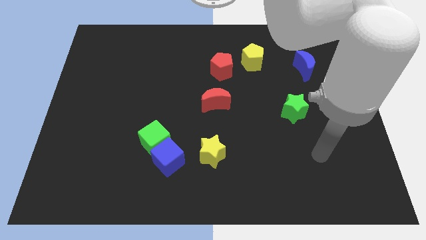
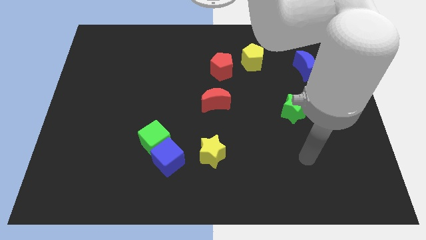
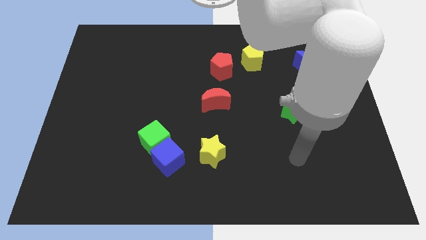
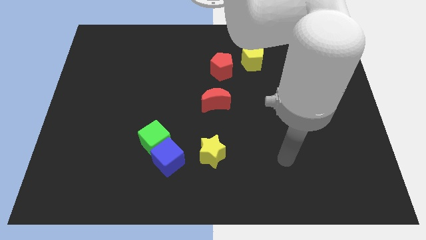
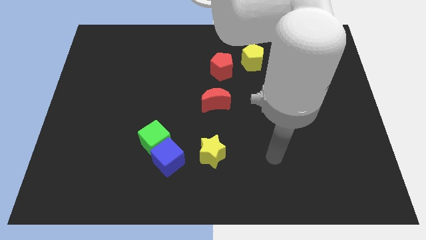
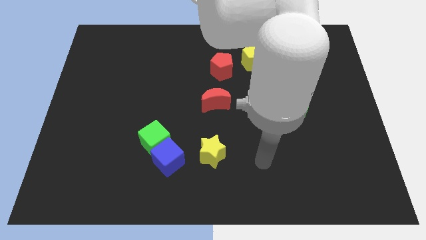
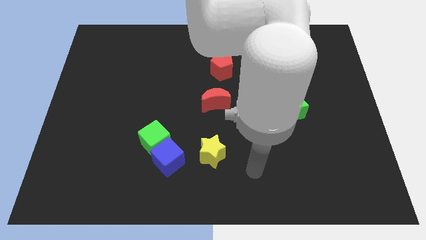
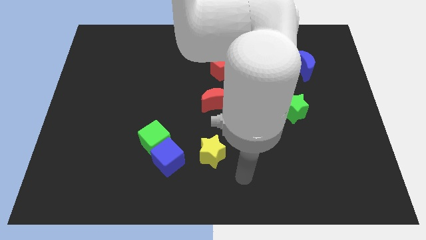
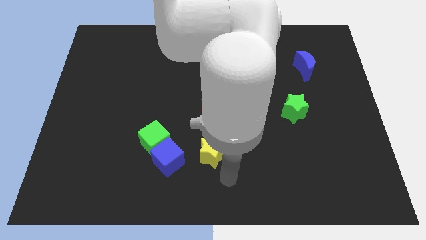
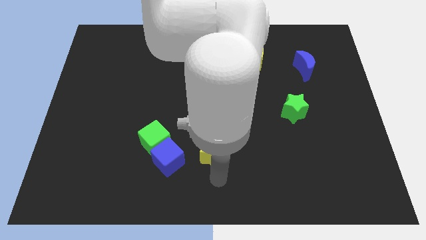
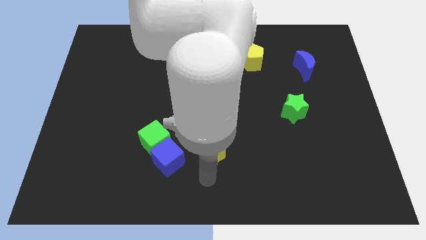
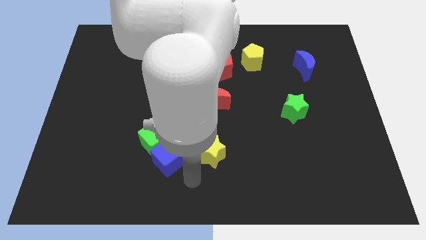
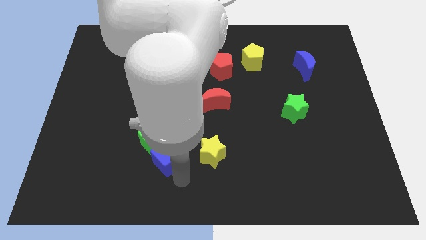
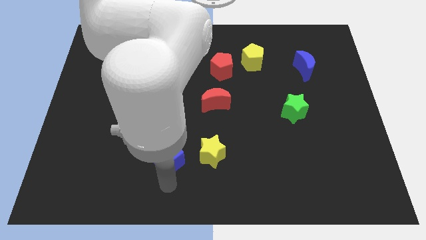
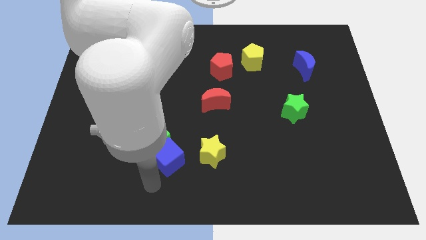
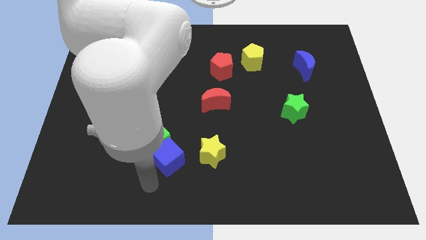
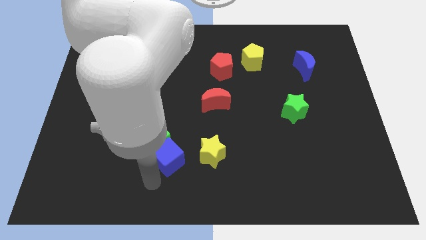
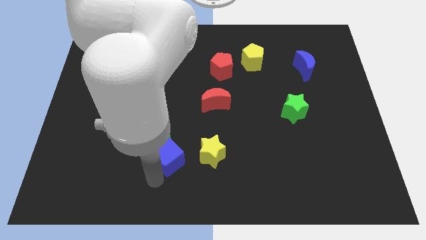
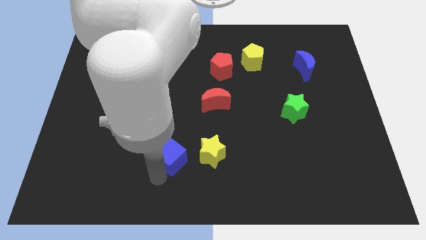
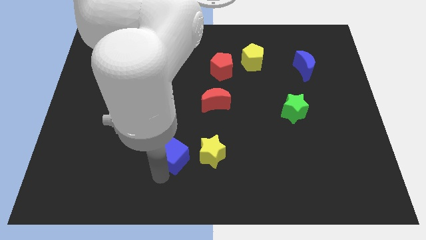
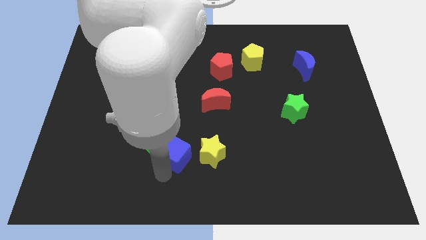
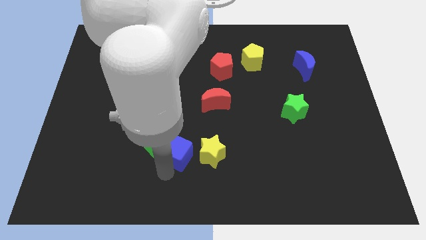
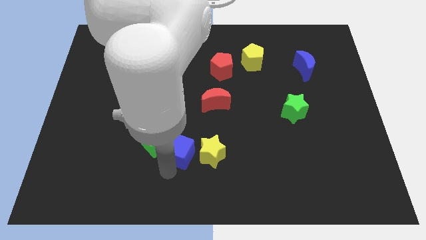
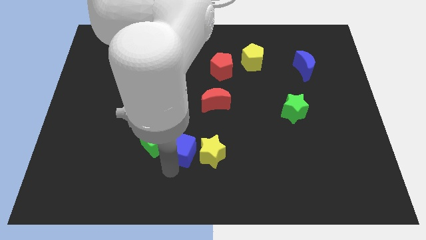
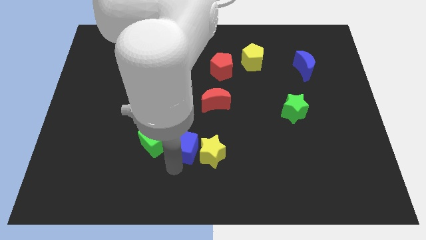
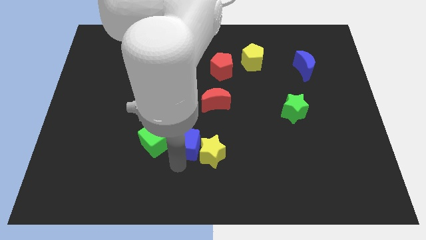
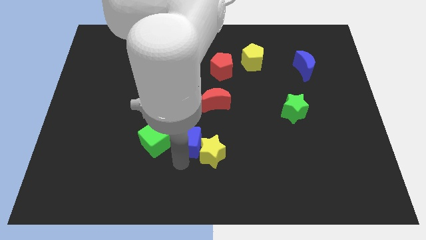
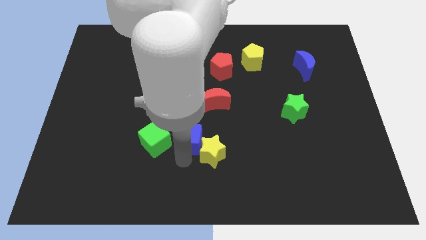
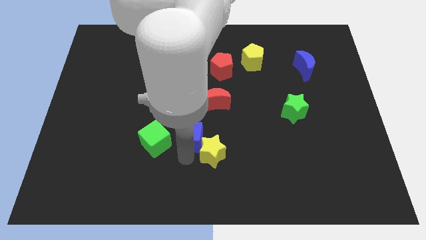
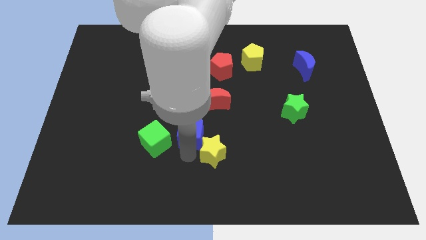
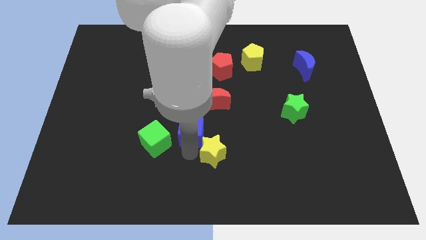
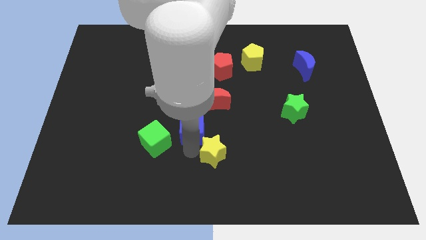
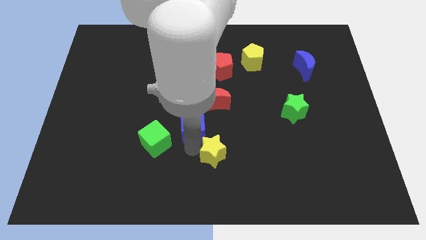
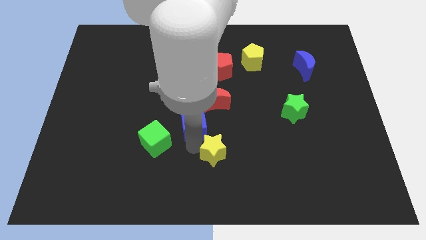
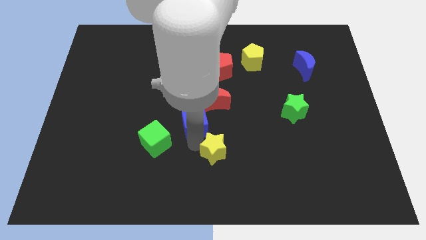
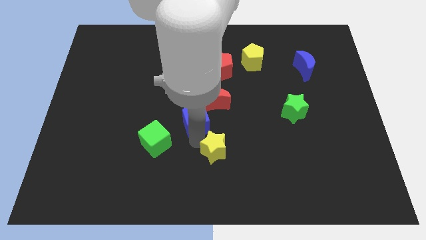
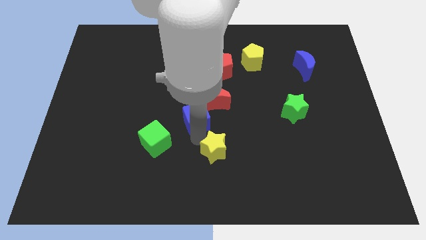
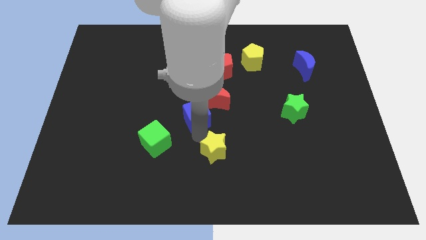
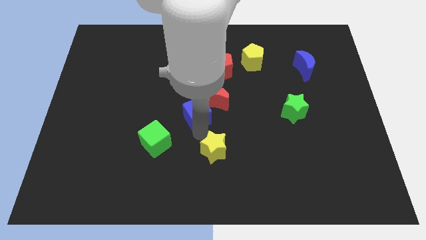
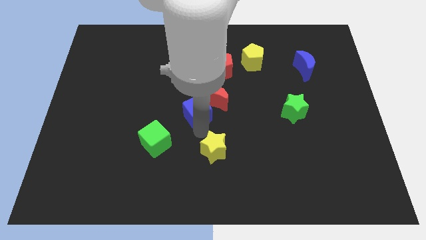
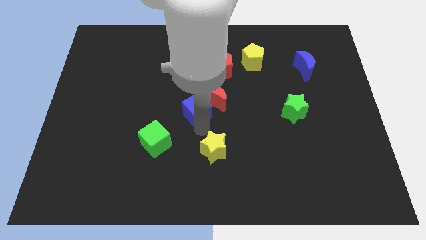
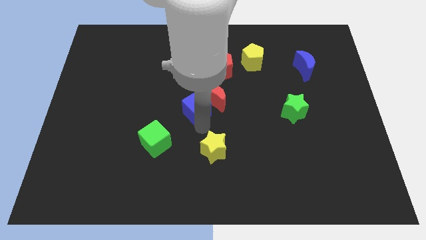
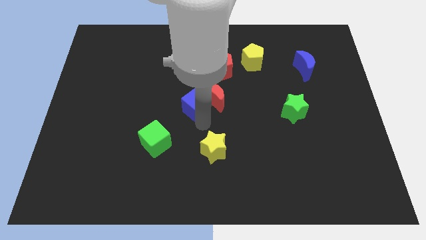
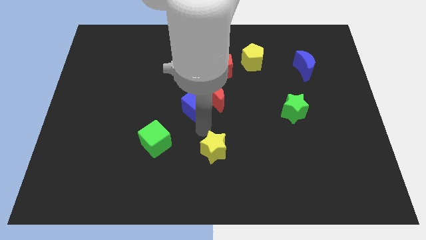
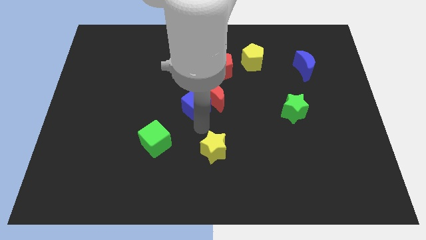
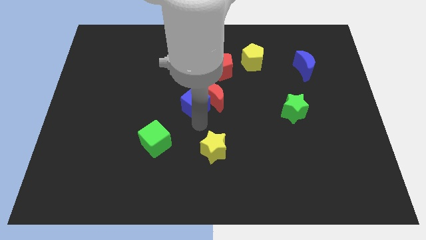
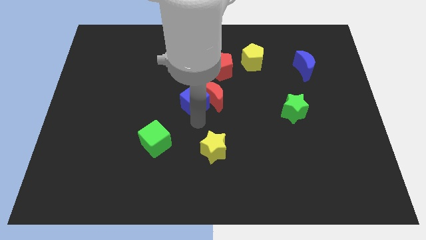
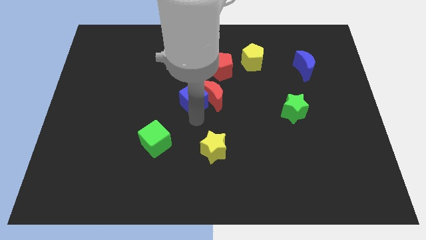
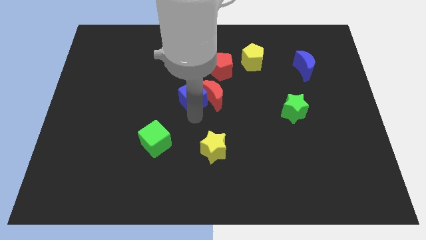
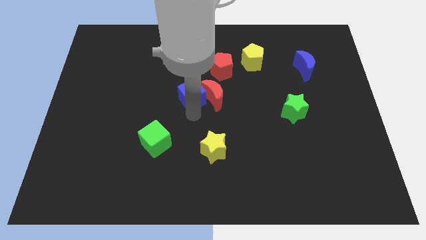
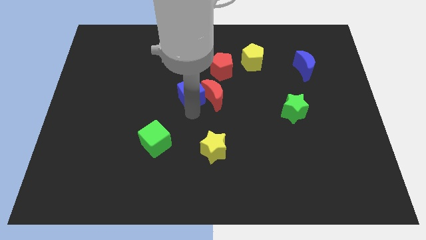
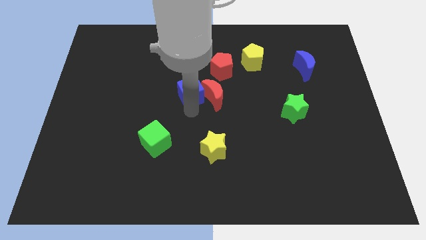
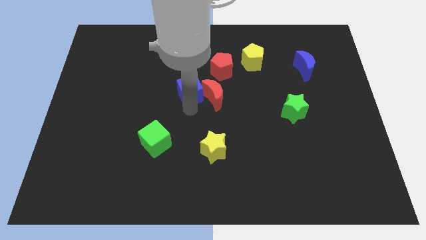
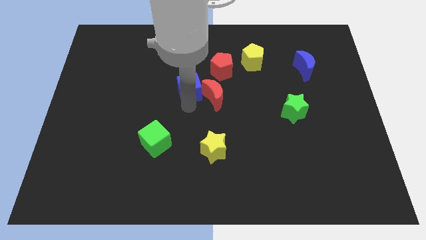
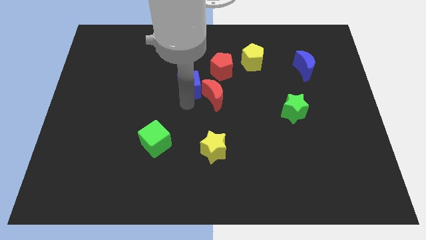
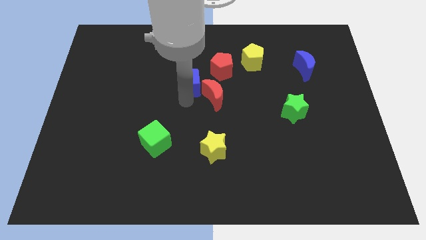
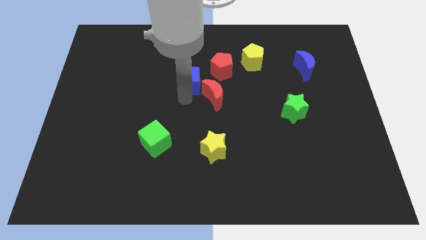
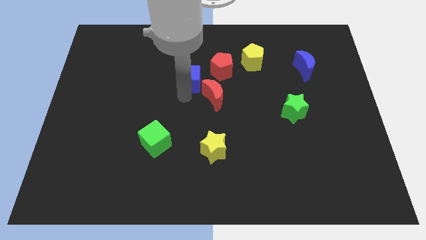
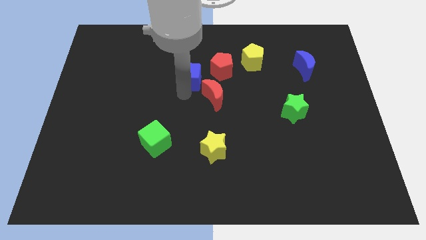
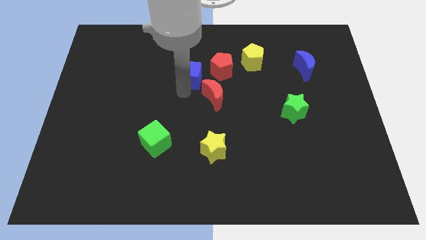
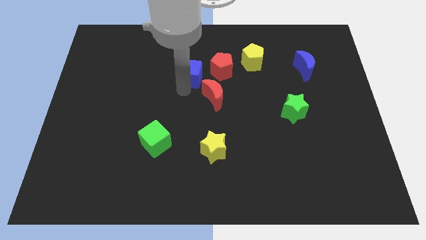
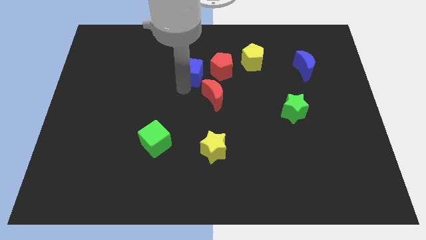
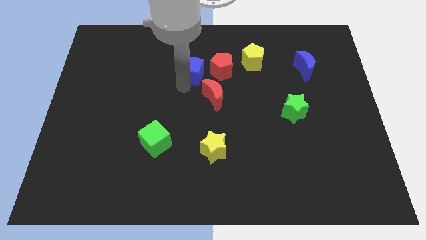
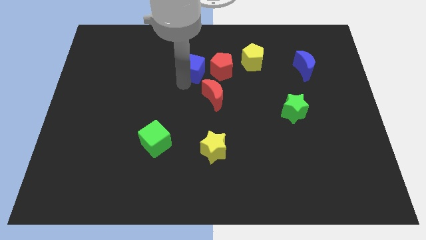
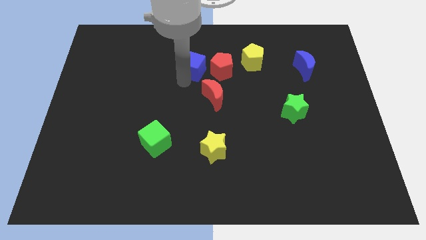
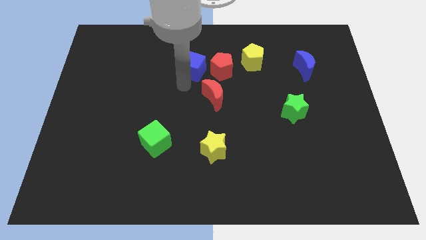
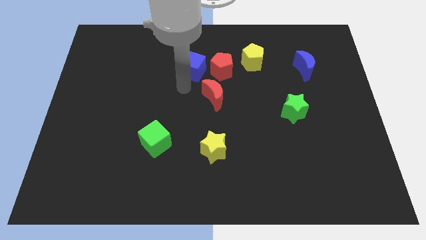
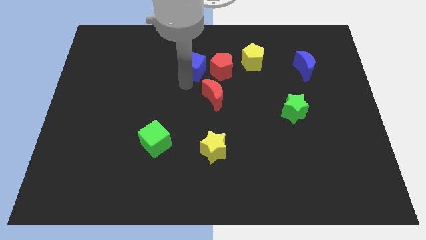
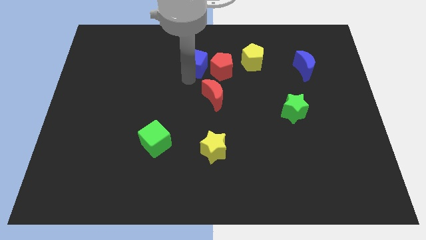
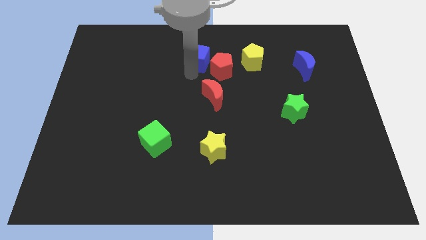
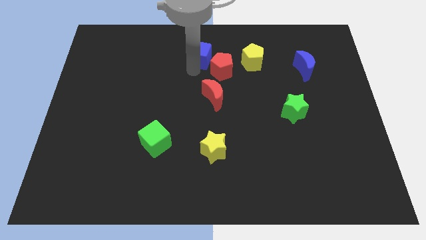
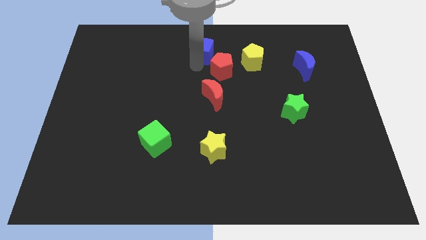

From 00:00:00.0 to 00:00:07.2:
move the blue cube to the top
